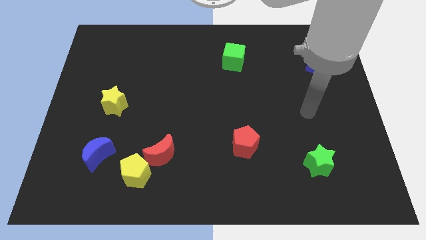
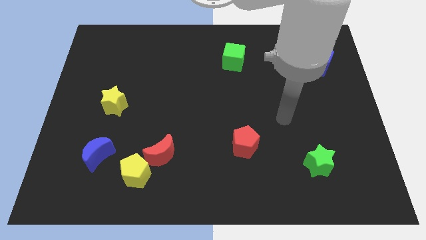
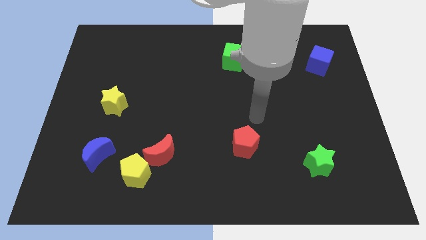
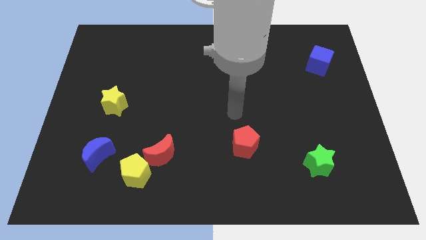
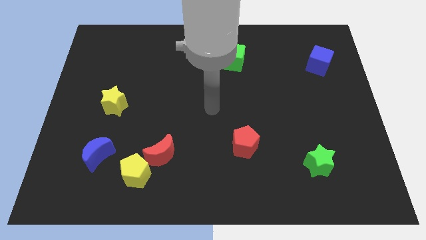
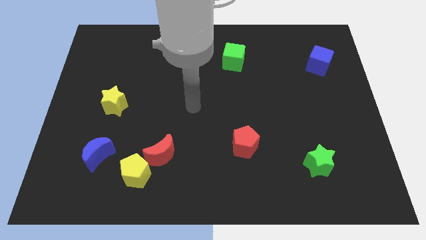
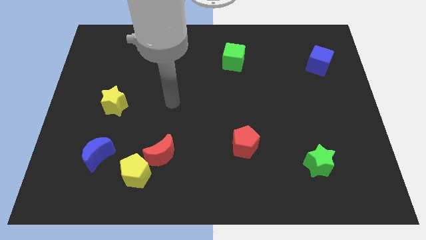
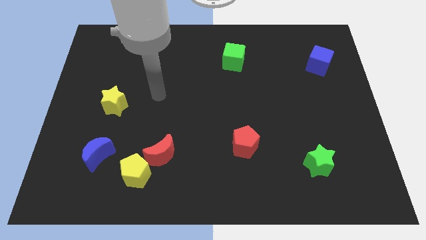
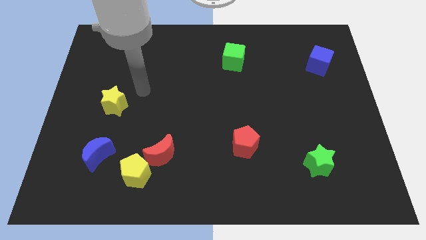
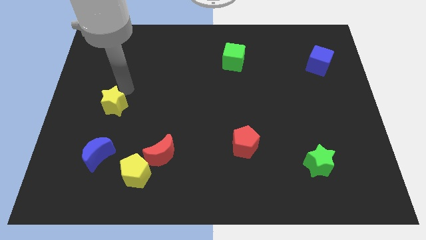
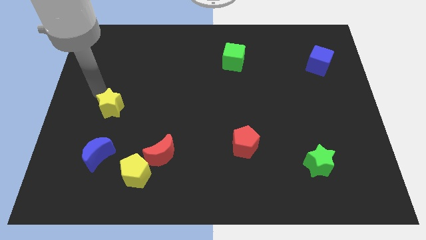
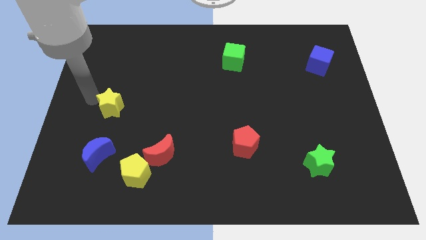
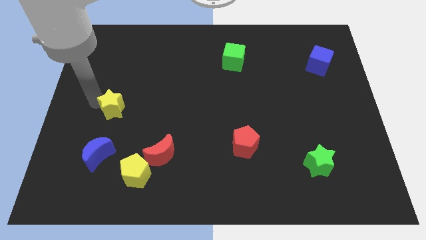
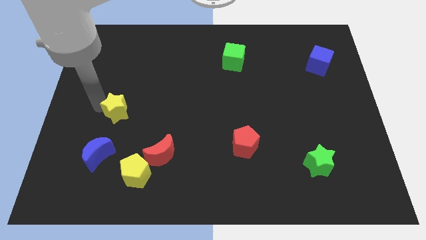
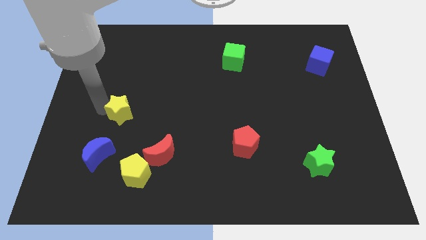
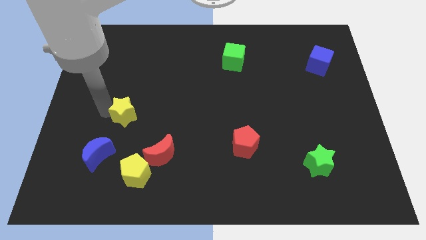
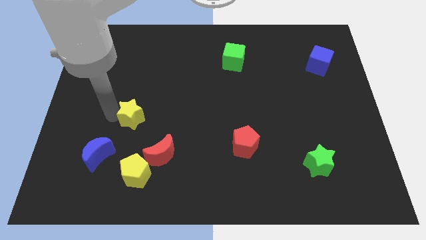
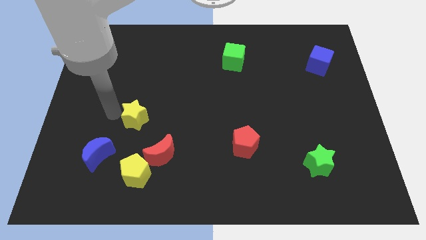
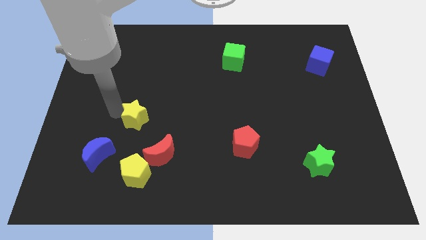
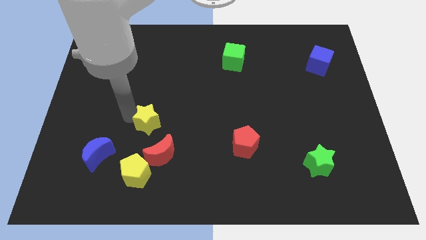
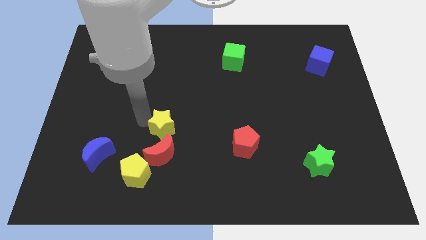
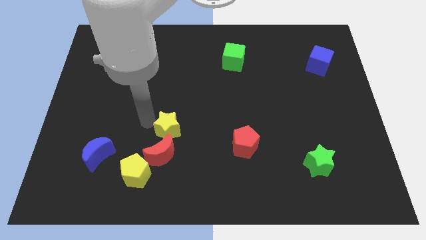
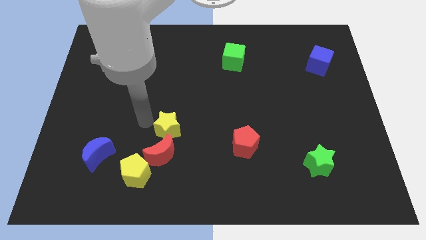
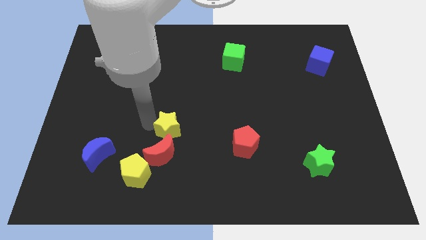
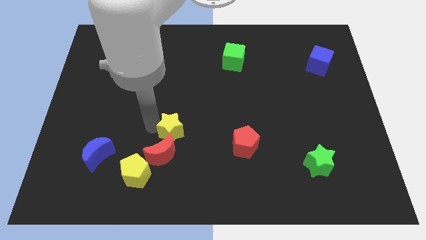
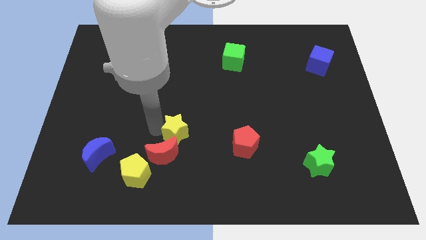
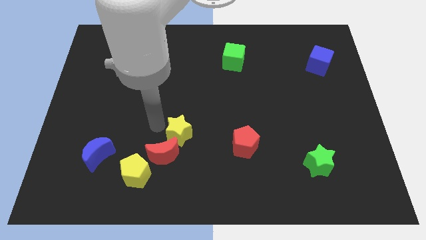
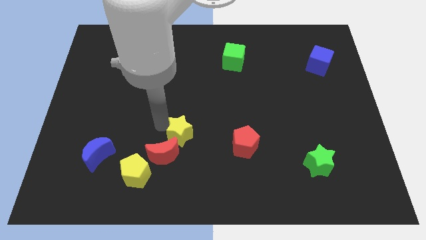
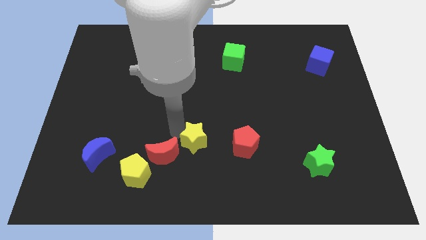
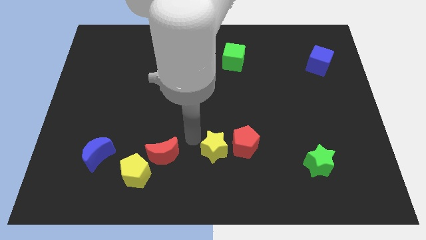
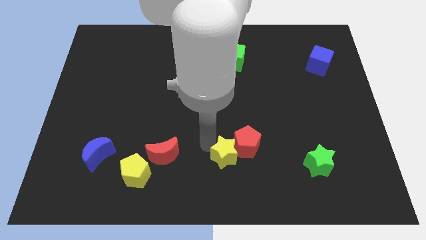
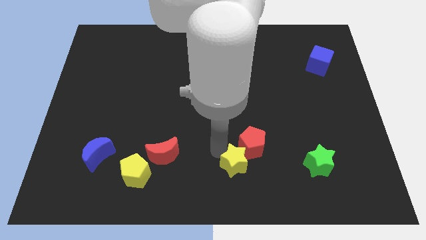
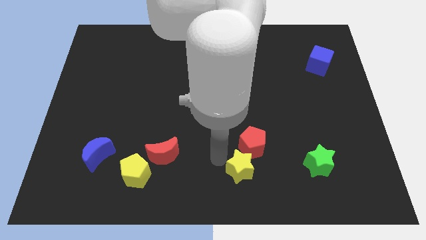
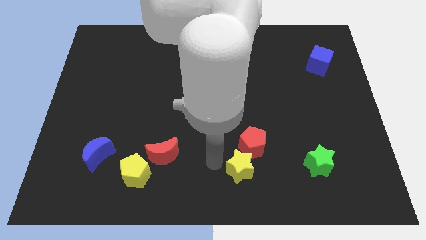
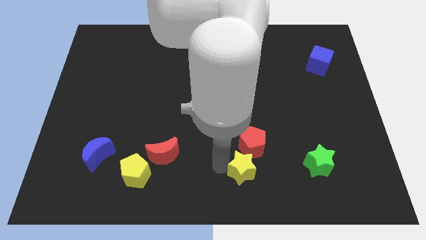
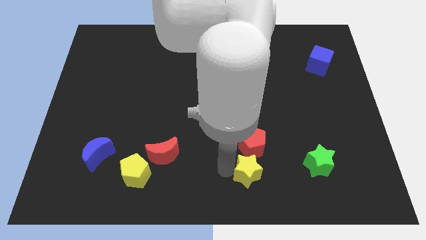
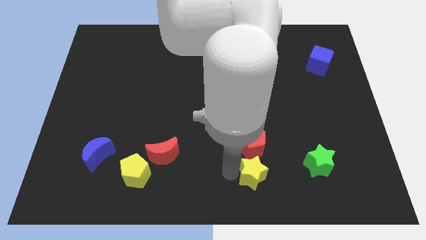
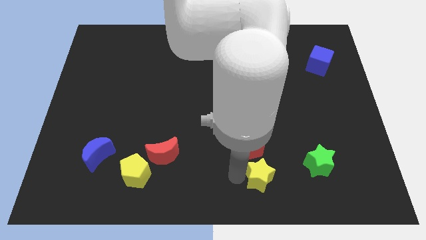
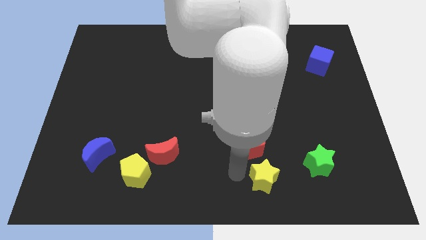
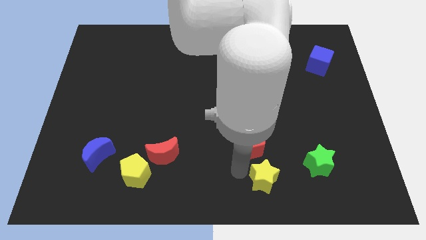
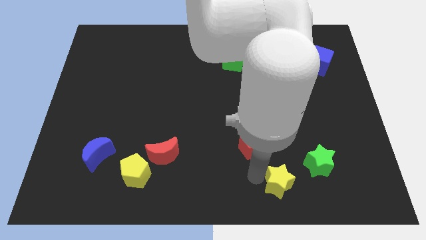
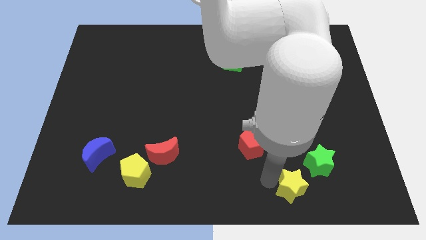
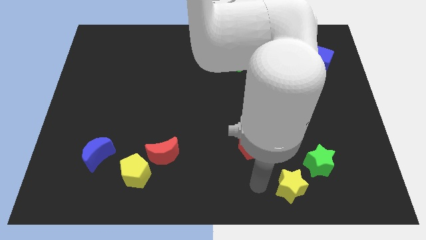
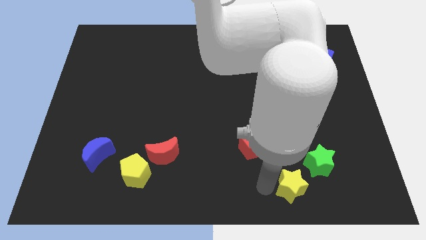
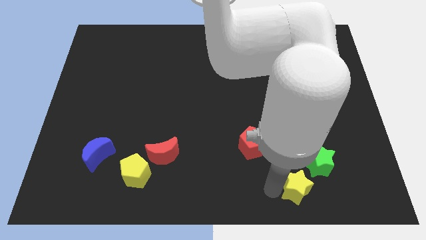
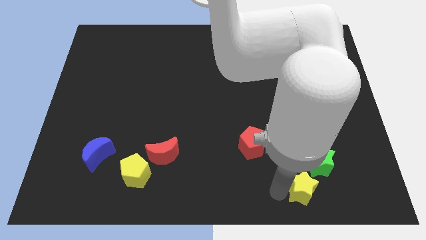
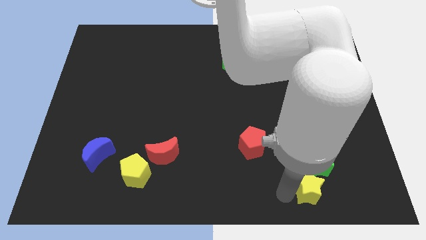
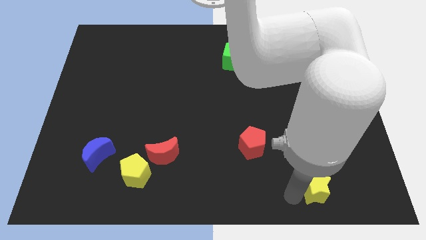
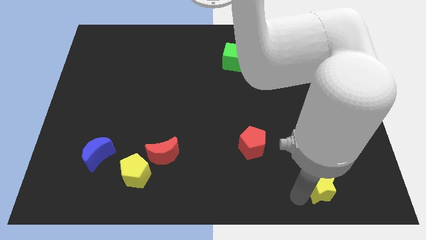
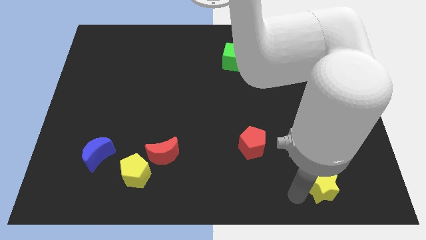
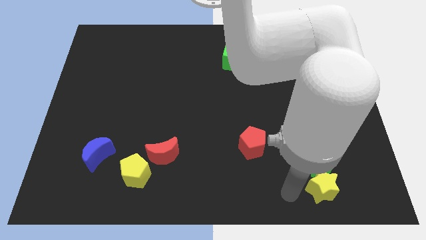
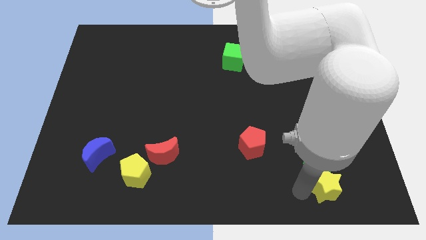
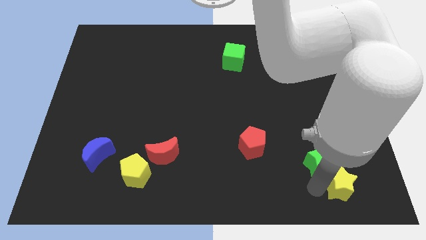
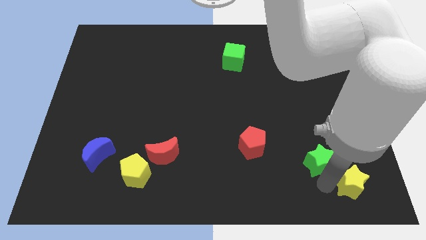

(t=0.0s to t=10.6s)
slide the yellow star to the lower right corner

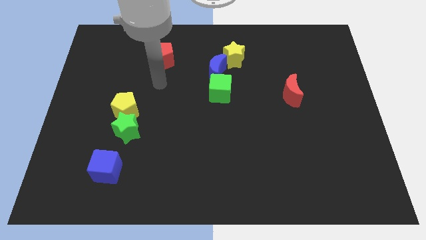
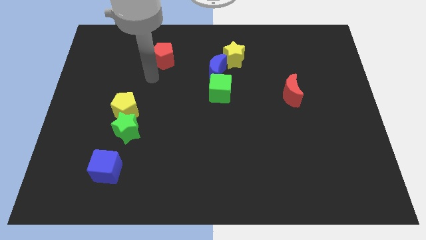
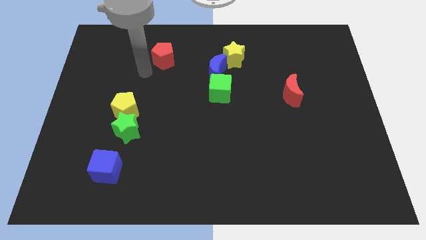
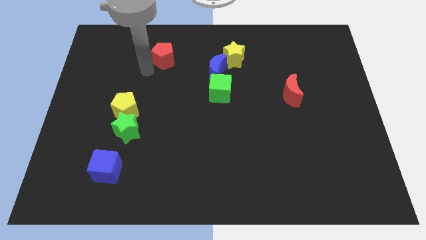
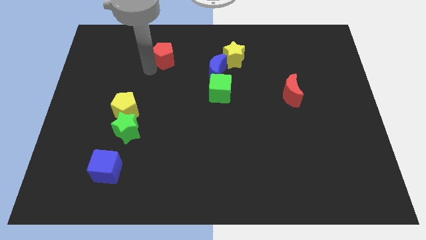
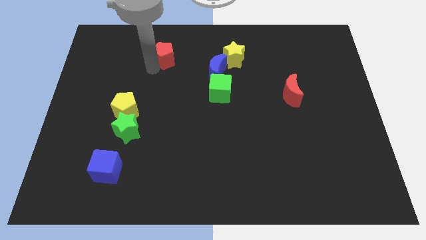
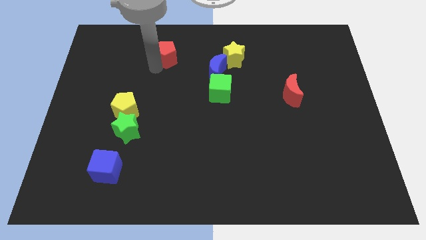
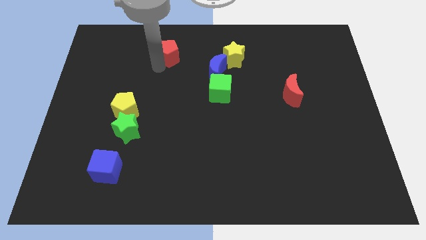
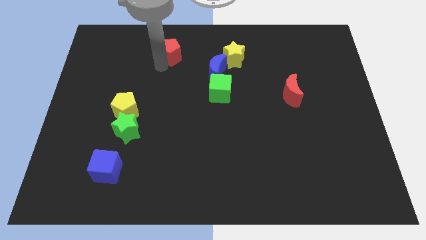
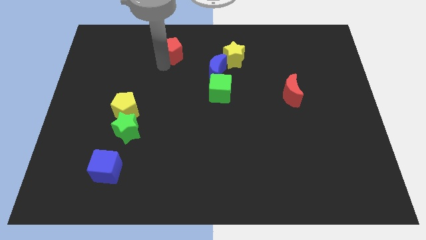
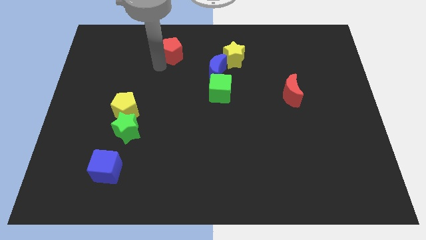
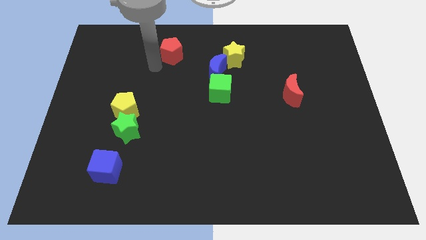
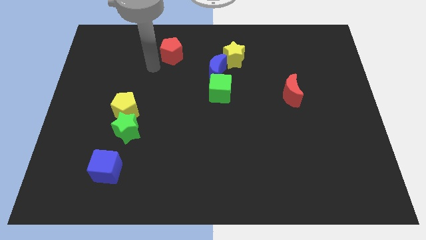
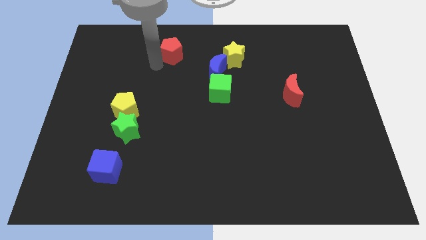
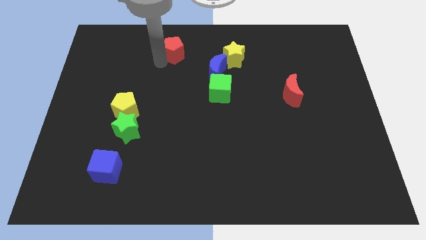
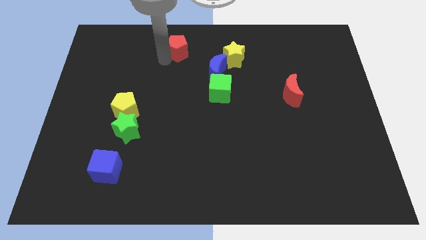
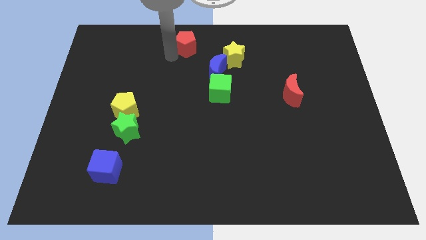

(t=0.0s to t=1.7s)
move the red pentagon to the towards your base

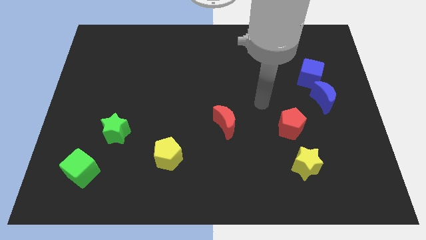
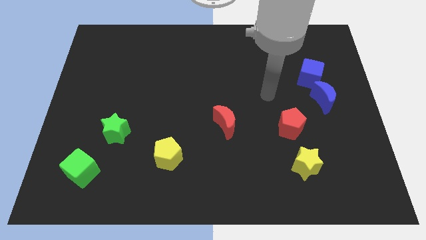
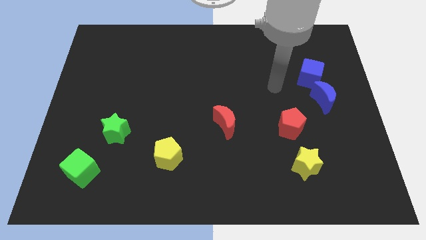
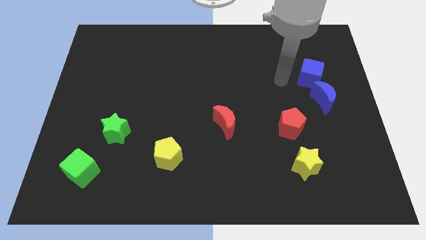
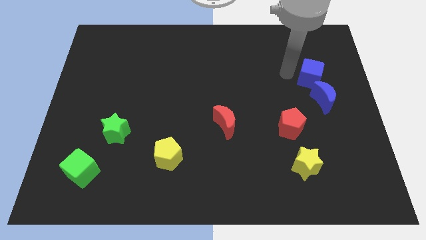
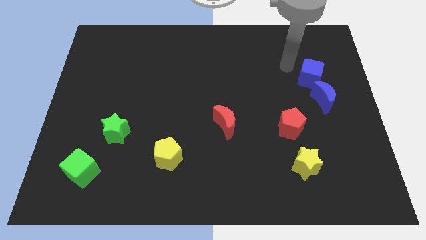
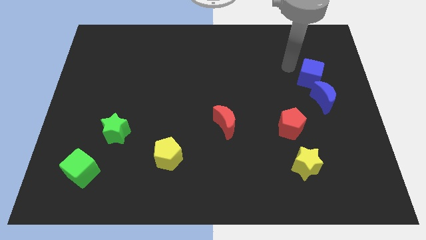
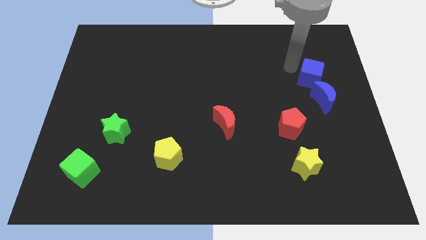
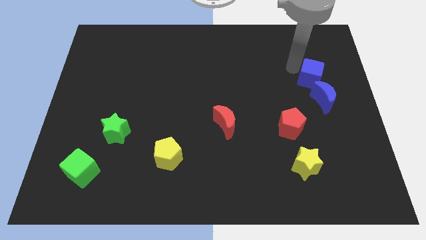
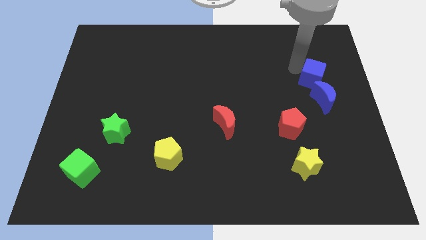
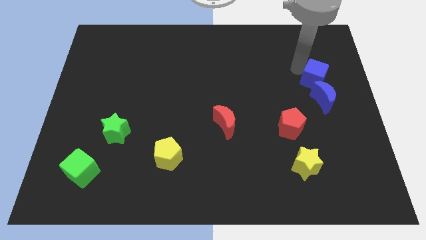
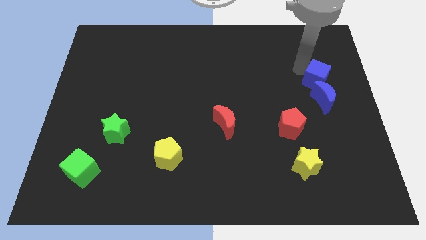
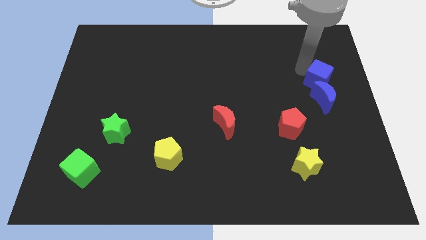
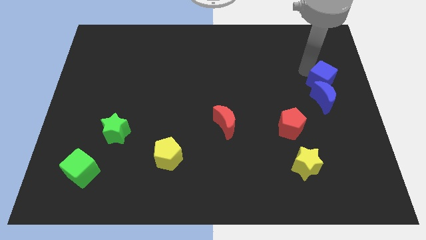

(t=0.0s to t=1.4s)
slide the blue cube to the right side of the board
